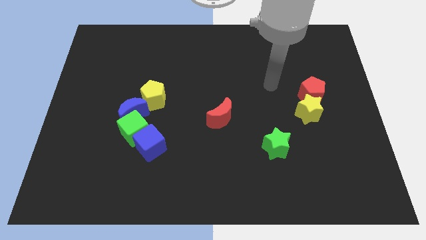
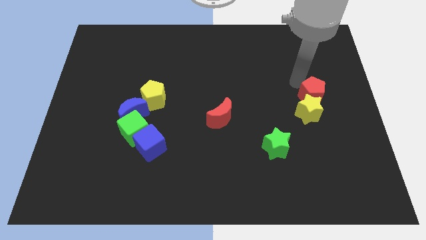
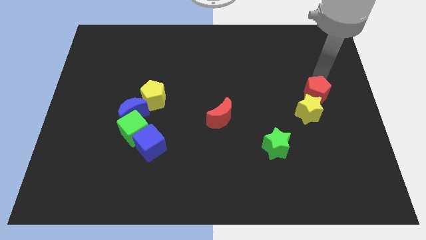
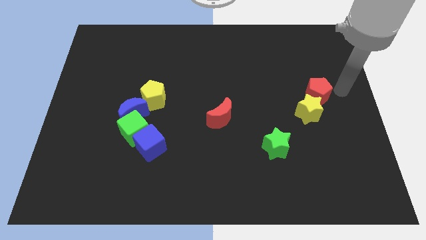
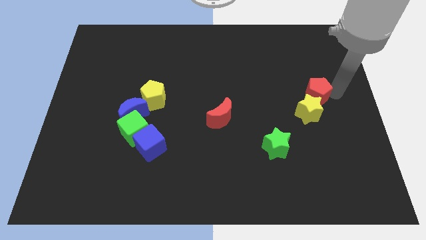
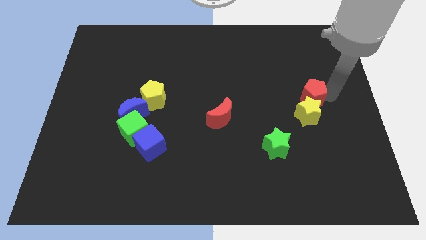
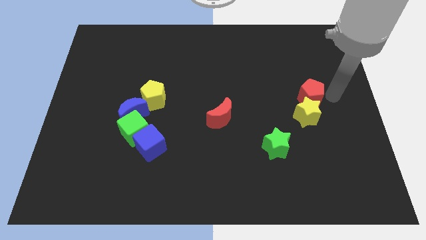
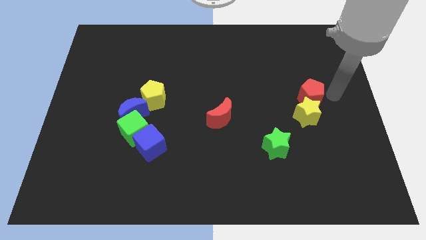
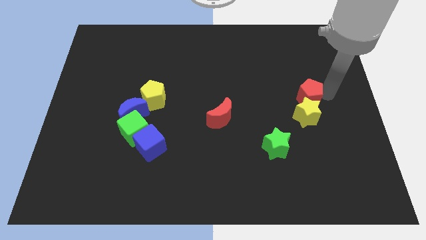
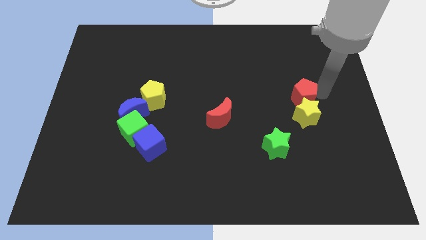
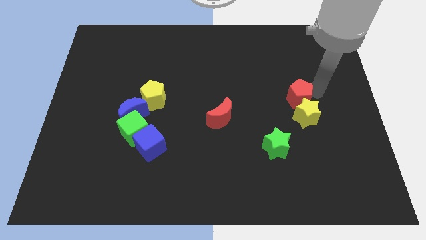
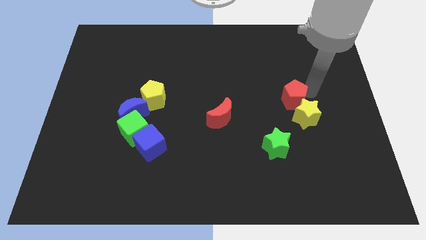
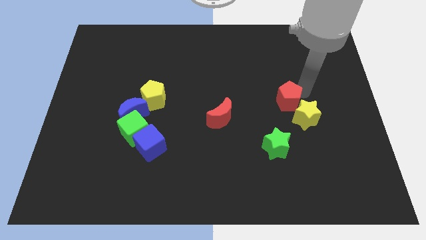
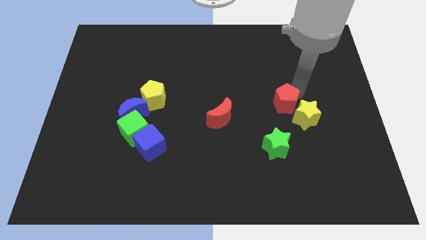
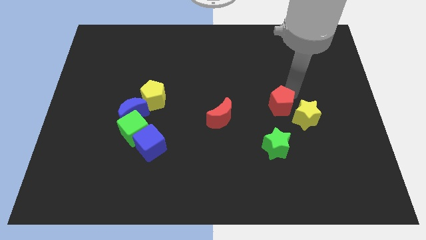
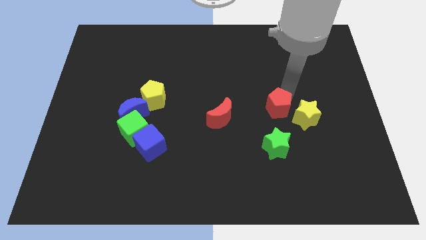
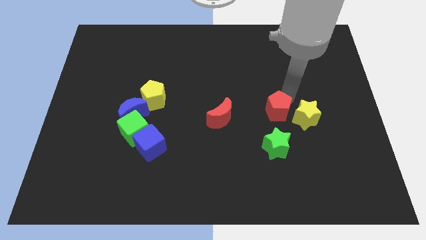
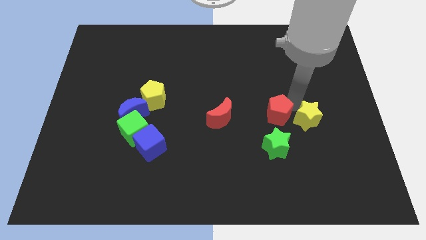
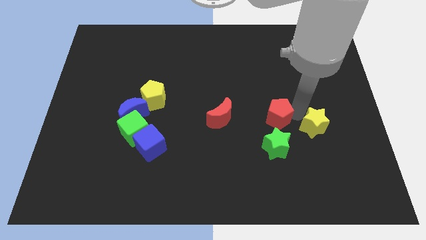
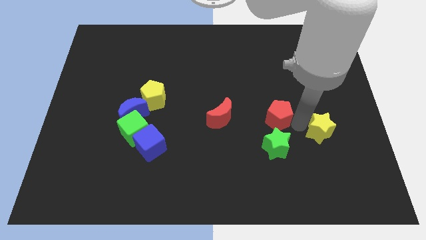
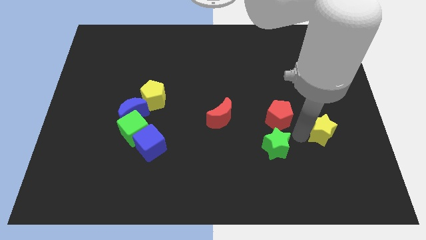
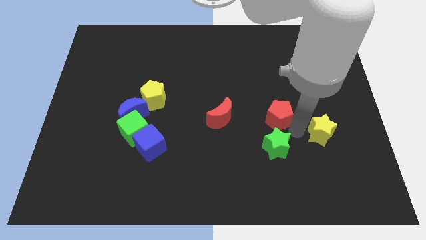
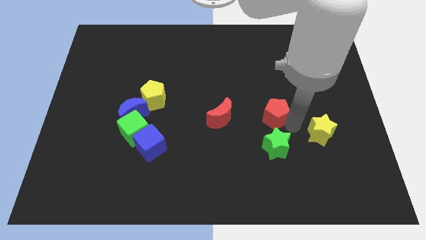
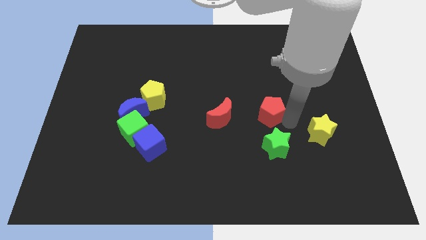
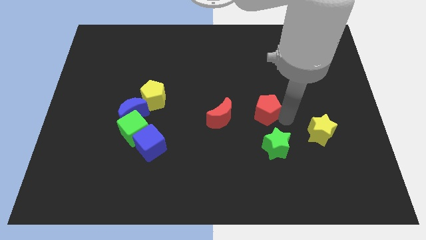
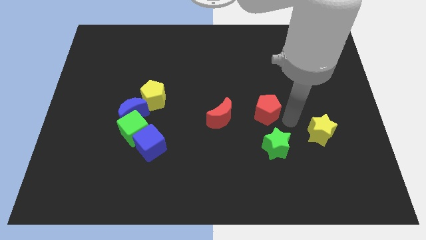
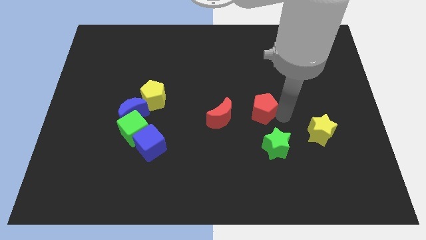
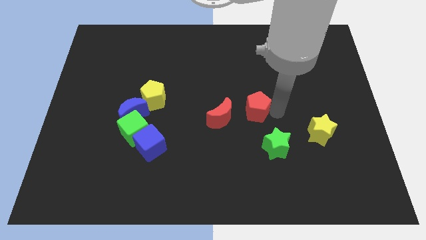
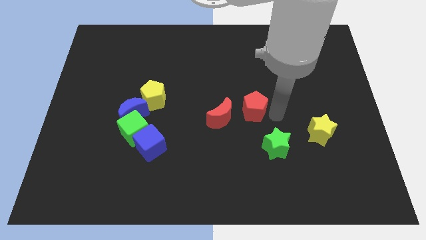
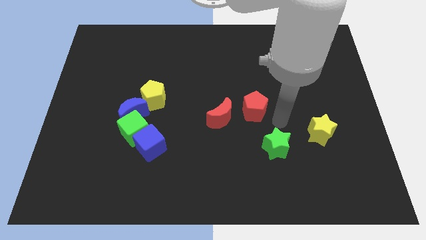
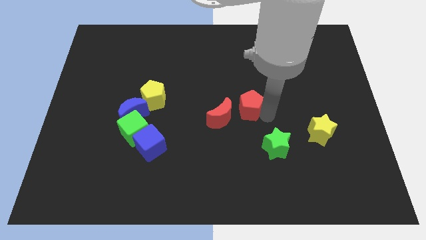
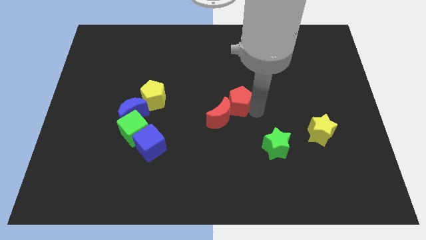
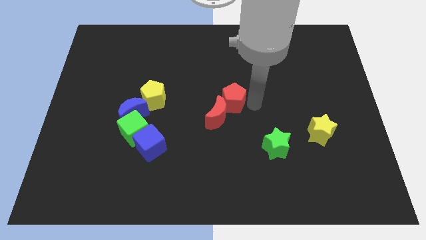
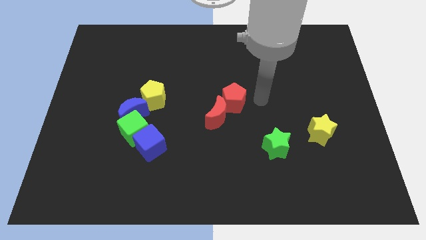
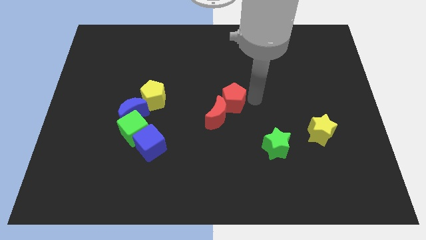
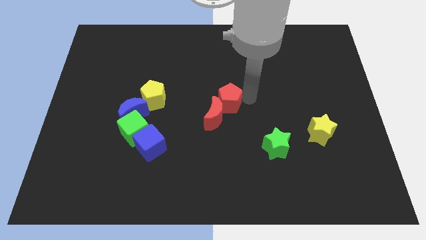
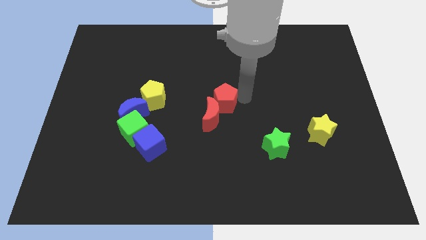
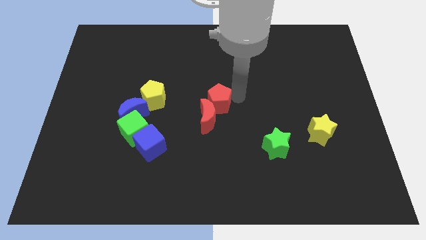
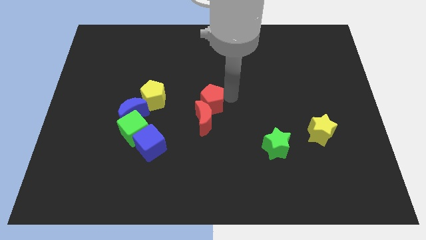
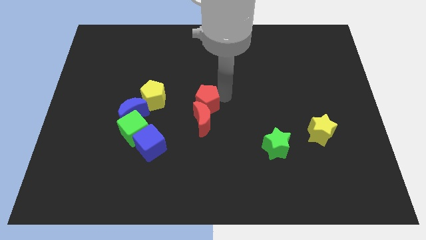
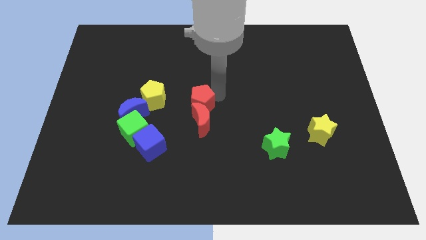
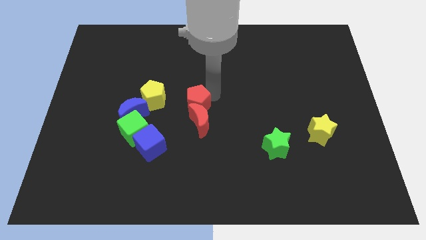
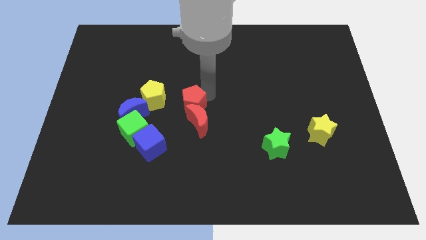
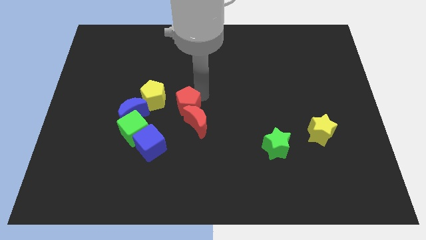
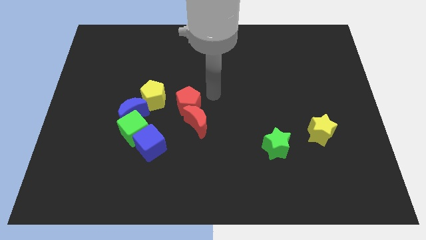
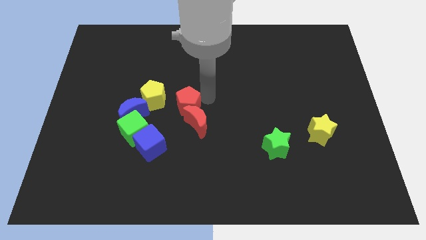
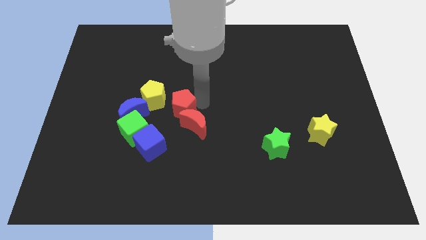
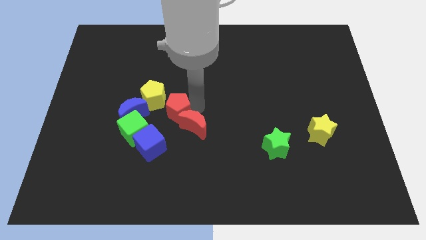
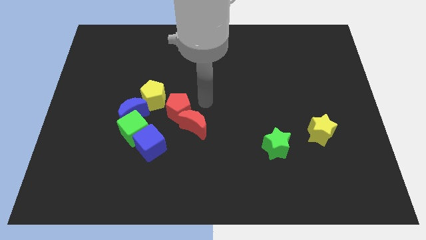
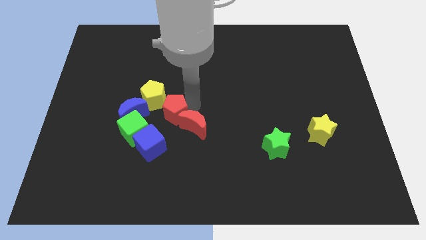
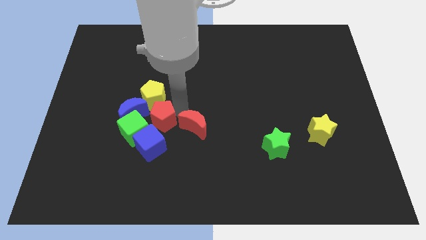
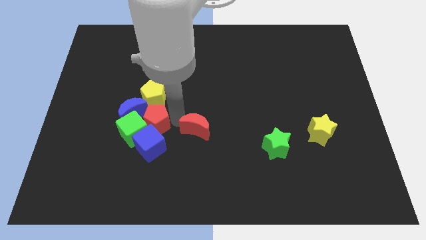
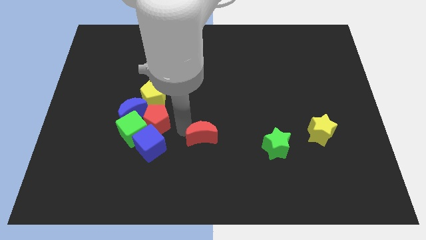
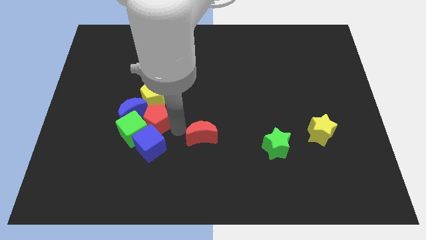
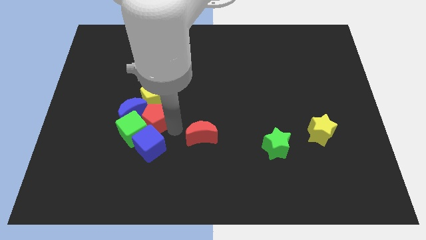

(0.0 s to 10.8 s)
push the red pentagon close to the blue moon

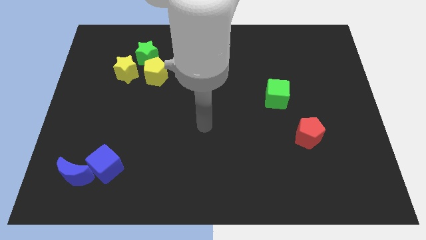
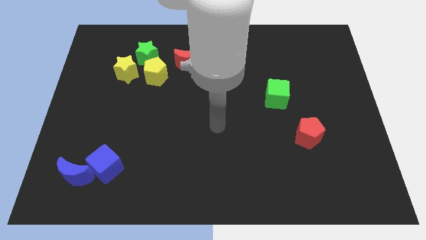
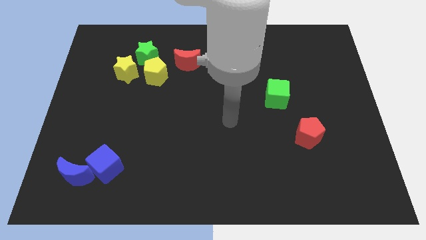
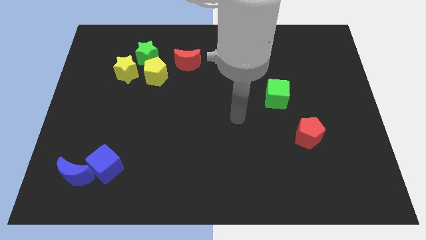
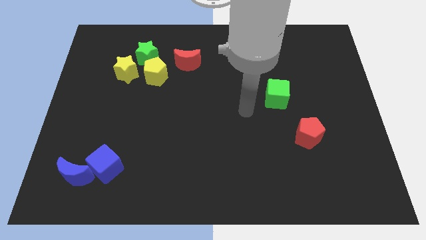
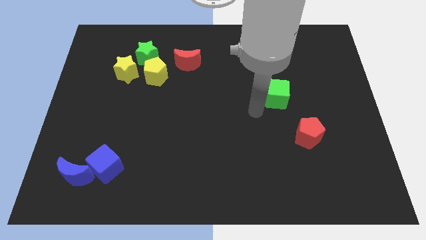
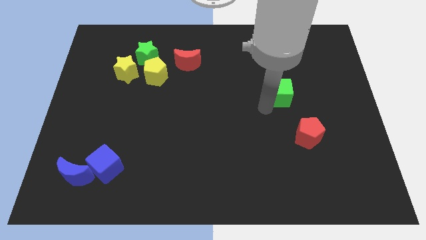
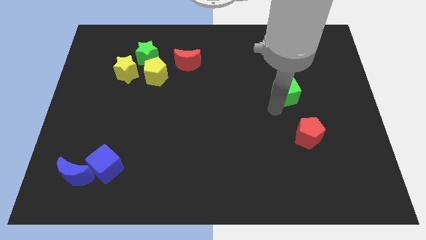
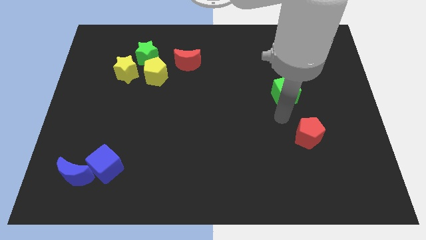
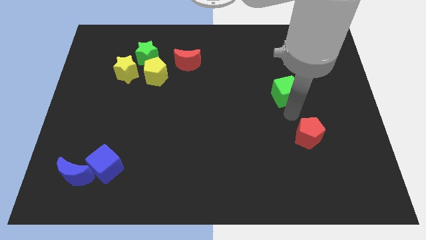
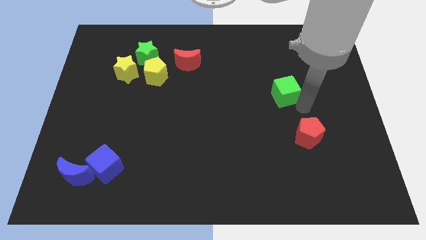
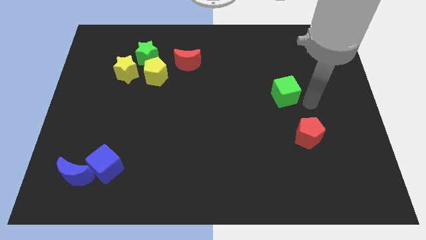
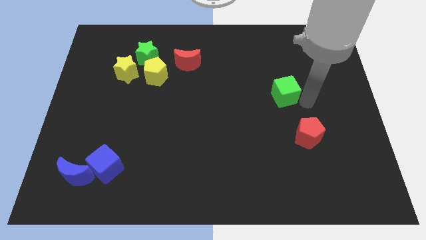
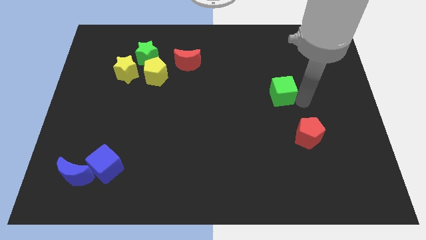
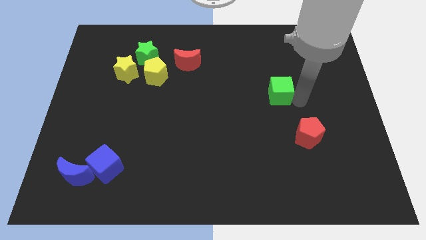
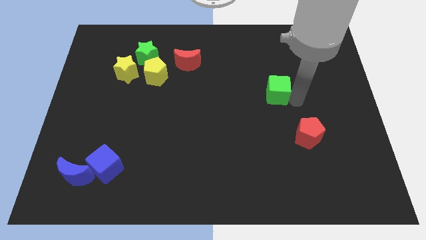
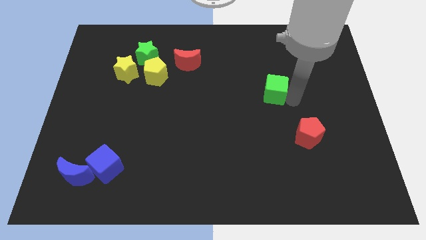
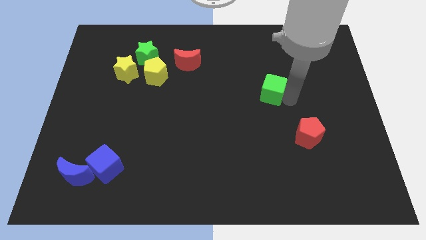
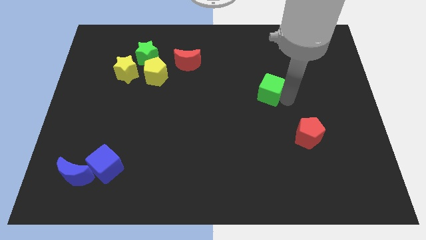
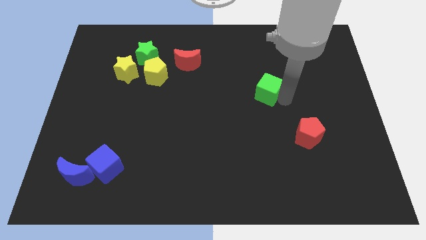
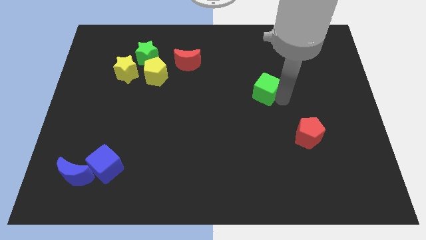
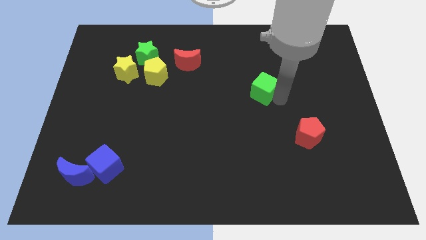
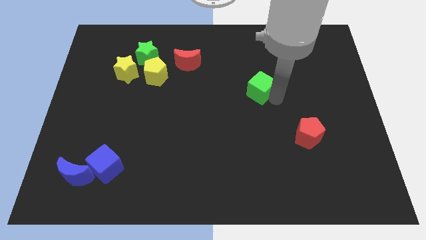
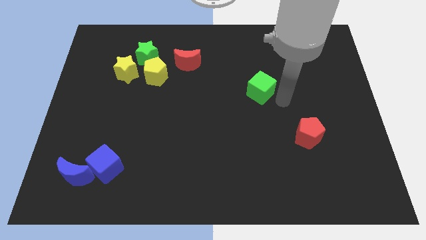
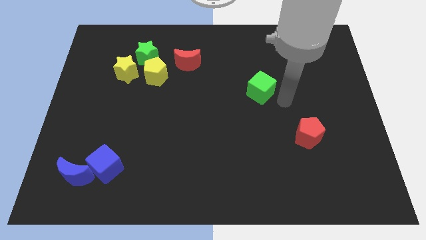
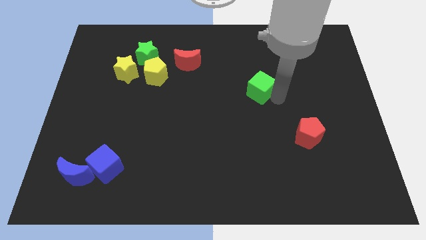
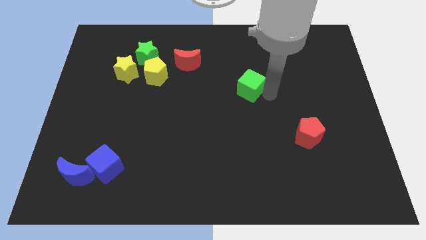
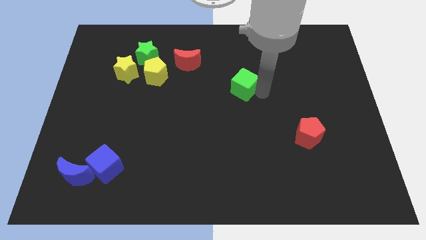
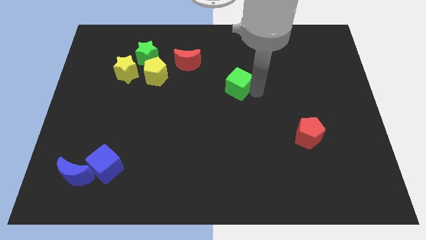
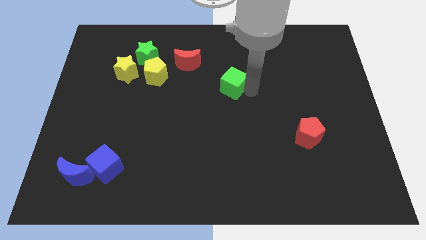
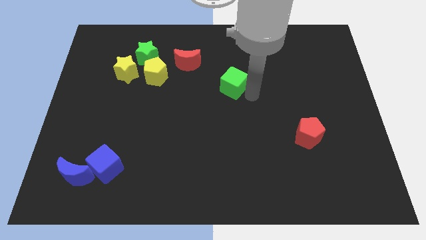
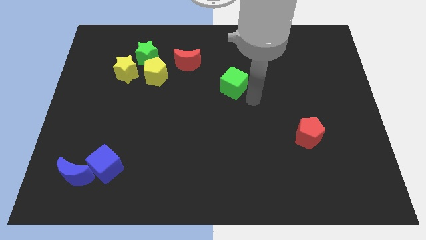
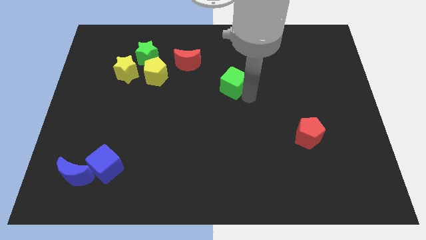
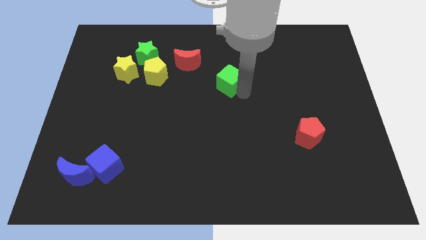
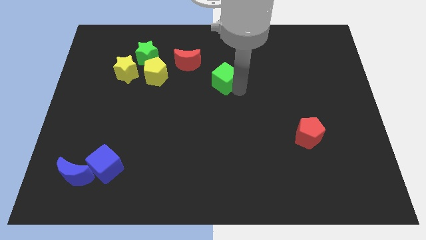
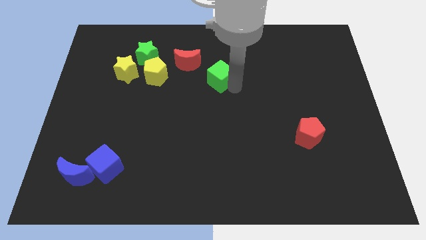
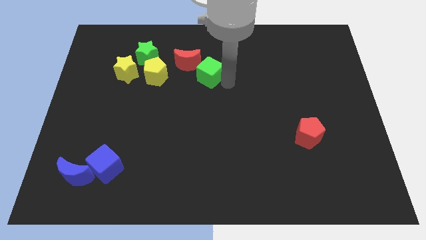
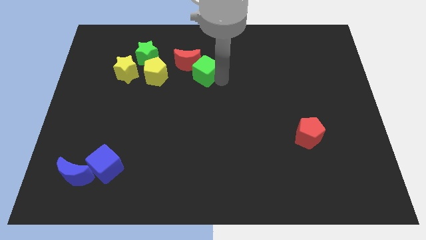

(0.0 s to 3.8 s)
move the green cube next to the red moon
